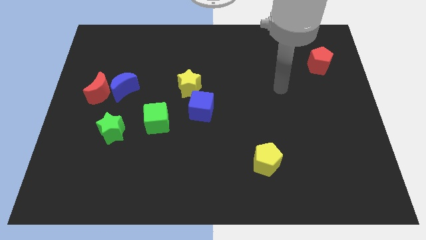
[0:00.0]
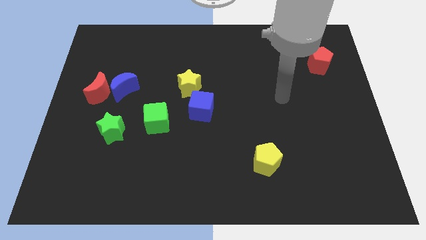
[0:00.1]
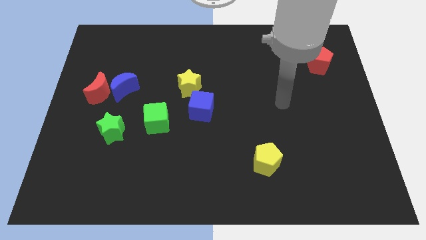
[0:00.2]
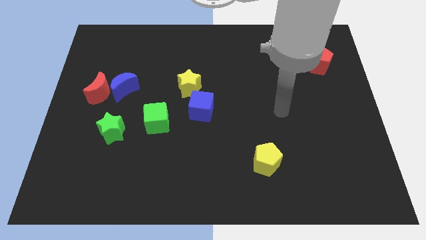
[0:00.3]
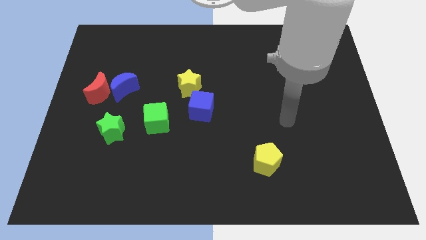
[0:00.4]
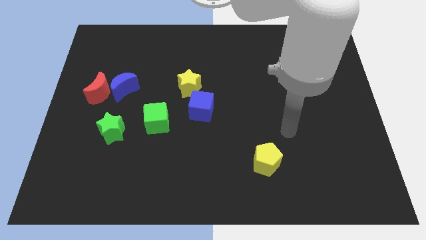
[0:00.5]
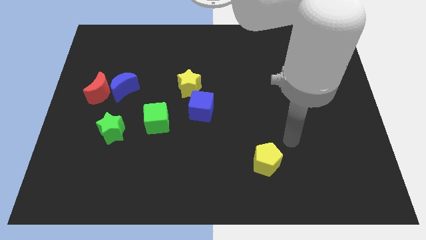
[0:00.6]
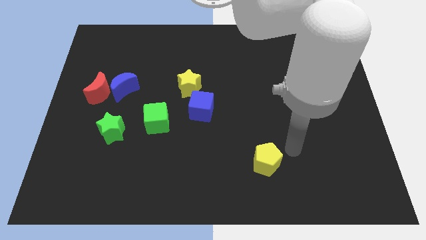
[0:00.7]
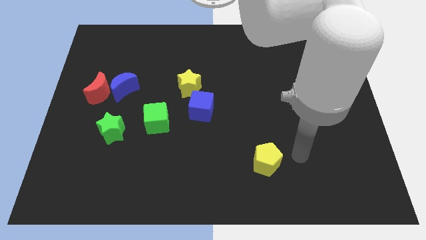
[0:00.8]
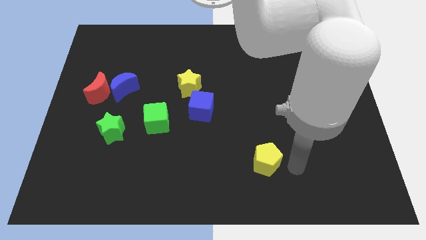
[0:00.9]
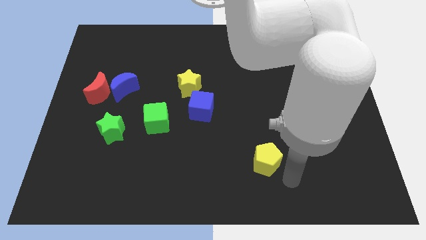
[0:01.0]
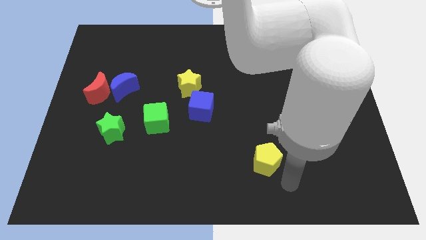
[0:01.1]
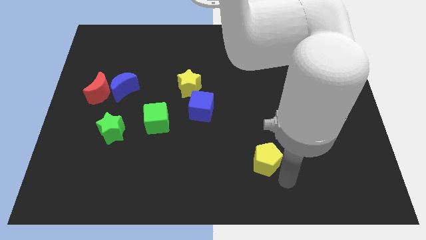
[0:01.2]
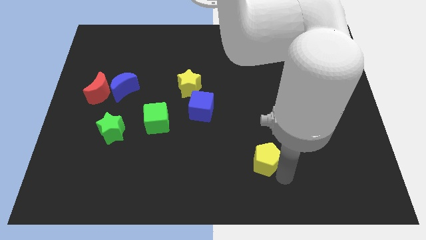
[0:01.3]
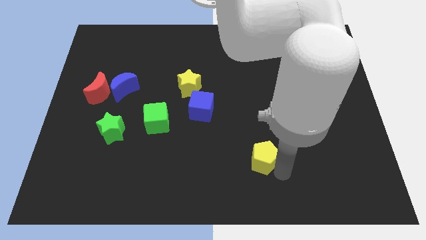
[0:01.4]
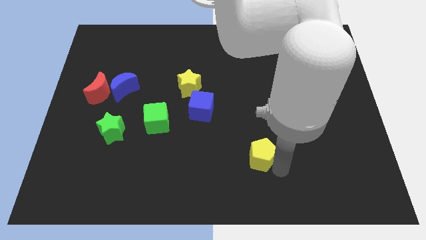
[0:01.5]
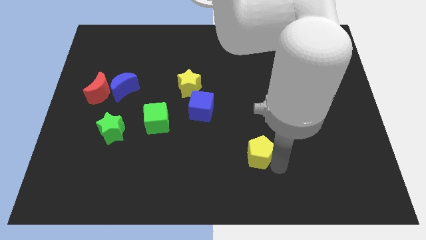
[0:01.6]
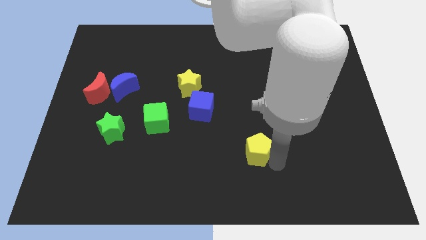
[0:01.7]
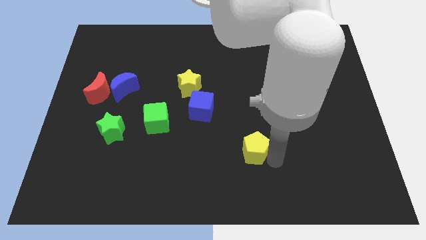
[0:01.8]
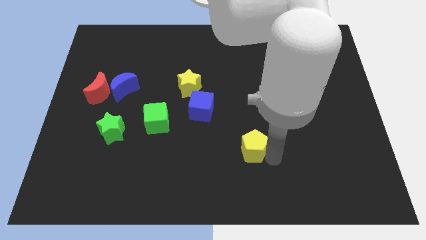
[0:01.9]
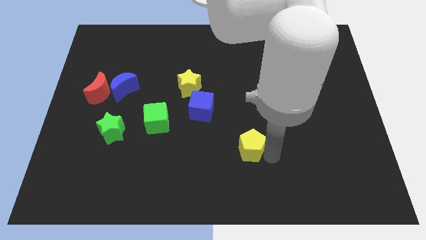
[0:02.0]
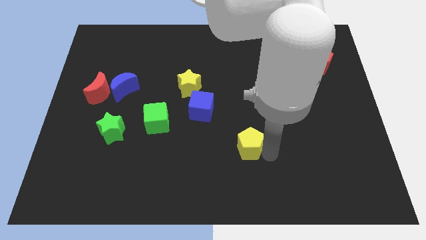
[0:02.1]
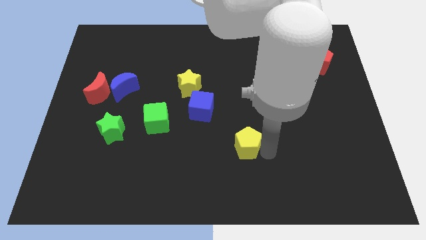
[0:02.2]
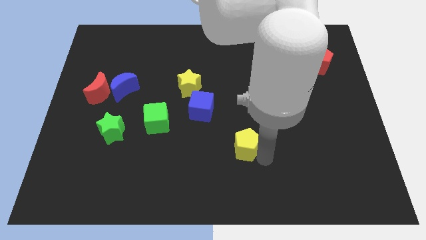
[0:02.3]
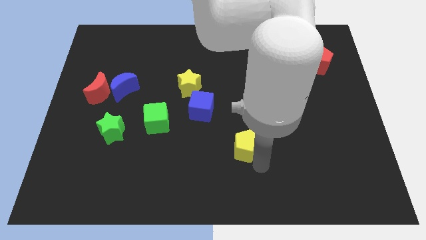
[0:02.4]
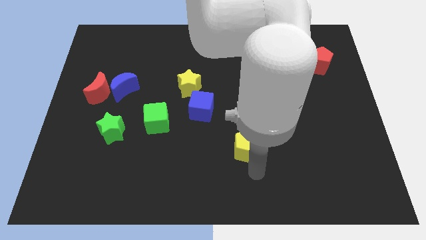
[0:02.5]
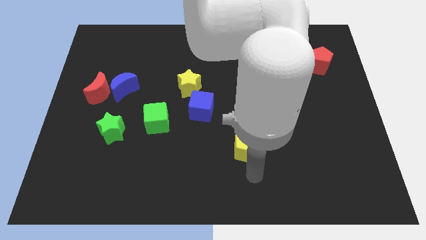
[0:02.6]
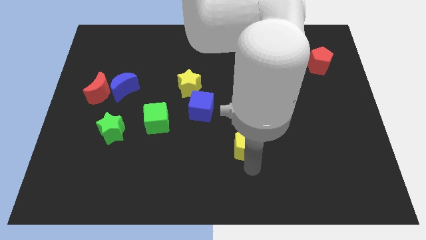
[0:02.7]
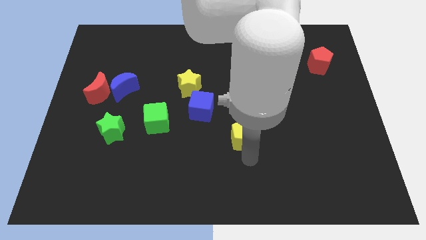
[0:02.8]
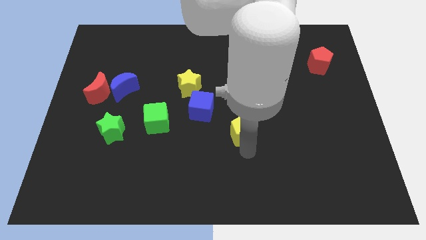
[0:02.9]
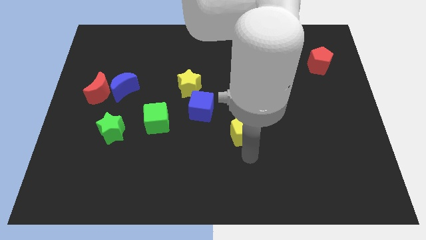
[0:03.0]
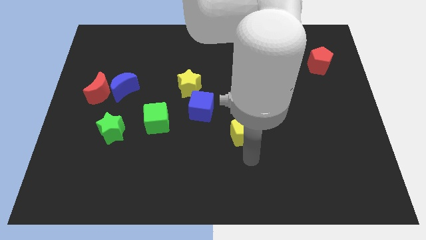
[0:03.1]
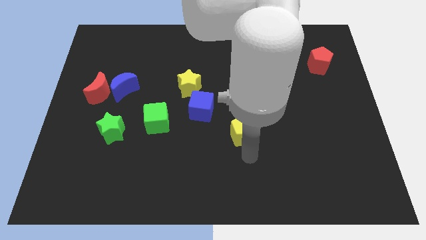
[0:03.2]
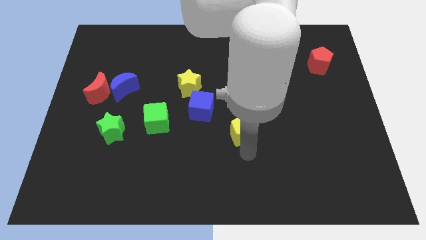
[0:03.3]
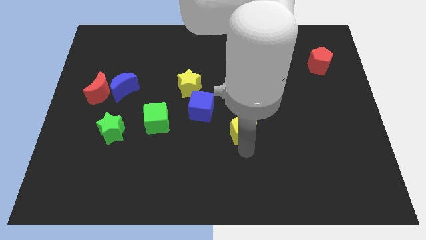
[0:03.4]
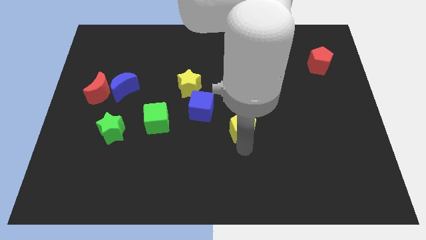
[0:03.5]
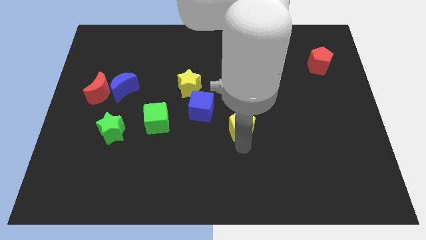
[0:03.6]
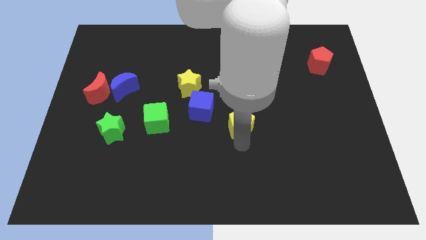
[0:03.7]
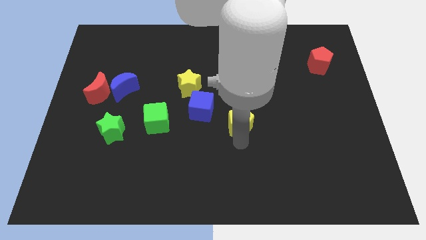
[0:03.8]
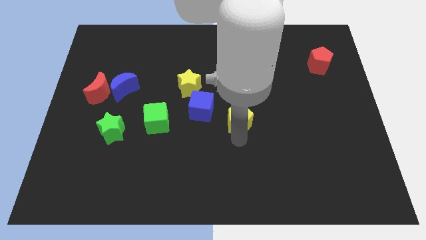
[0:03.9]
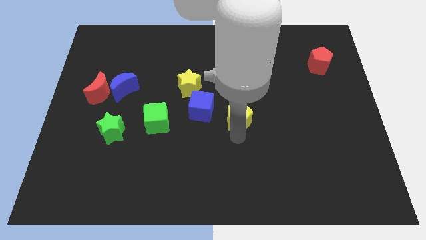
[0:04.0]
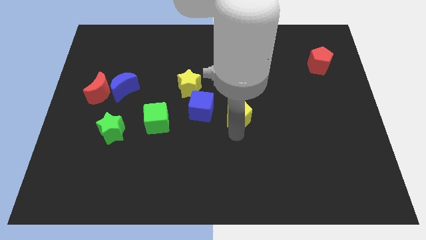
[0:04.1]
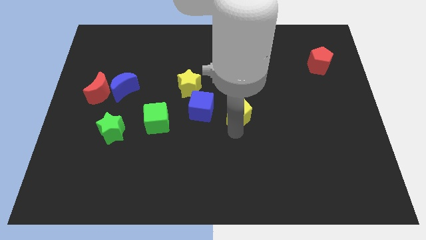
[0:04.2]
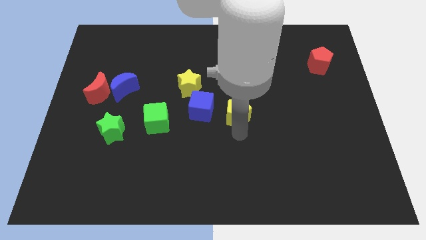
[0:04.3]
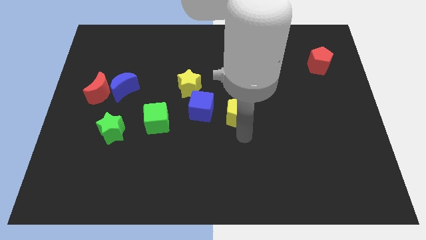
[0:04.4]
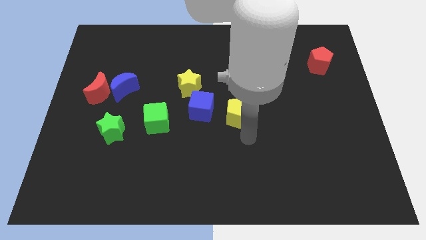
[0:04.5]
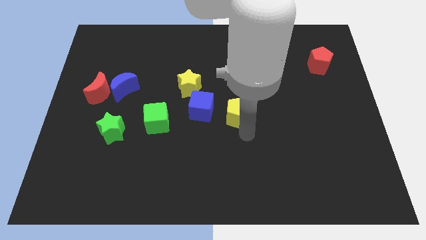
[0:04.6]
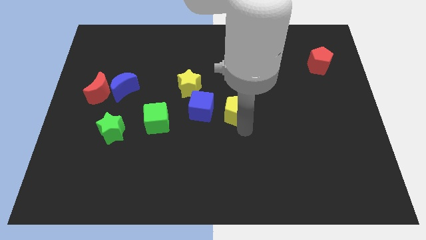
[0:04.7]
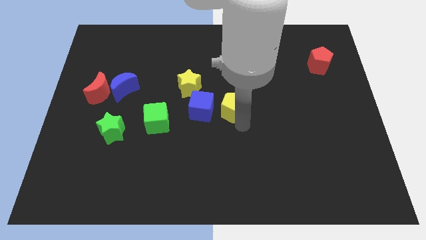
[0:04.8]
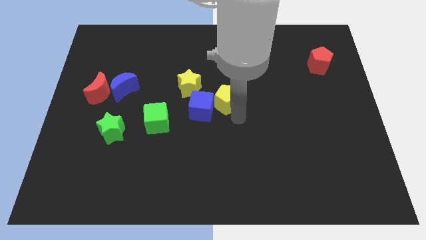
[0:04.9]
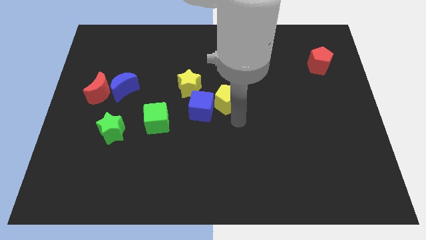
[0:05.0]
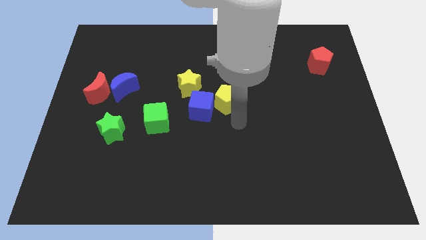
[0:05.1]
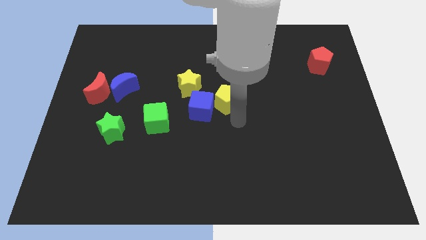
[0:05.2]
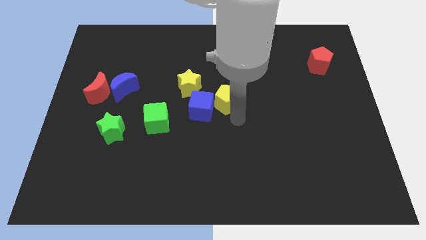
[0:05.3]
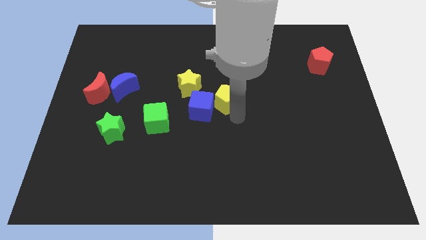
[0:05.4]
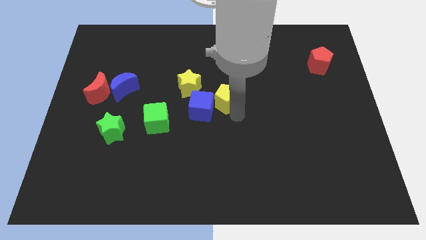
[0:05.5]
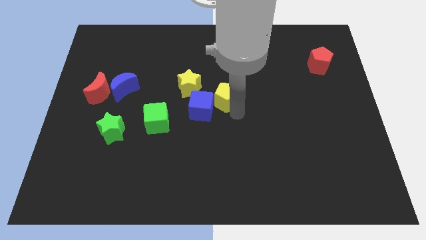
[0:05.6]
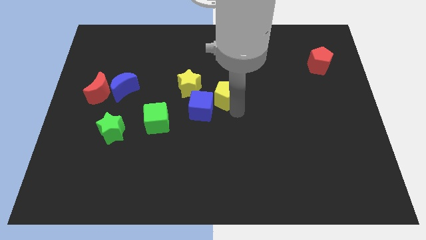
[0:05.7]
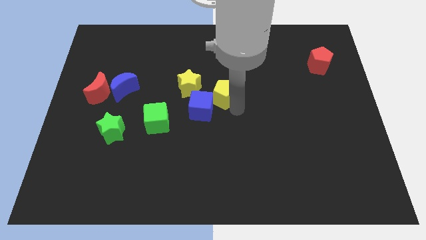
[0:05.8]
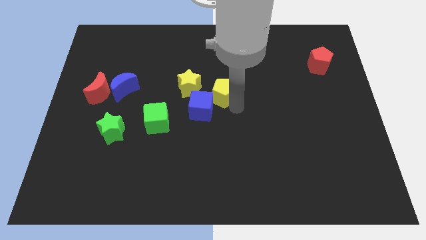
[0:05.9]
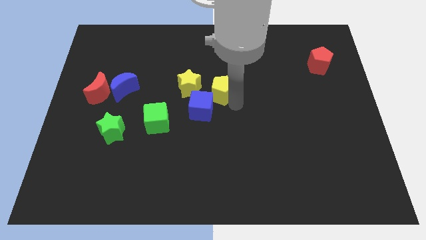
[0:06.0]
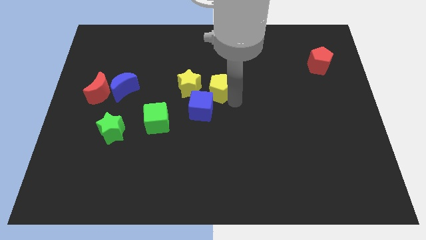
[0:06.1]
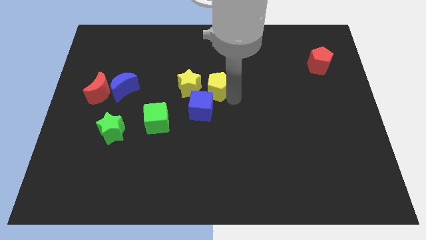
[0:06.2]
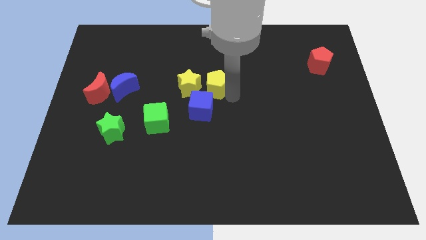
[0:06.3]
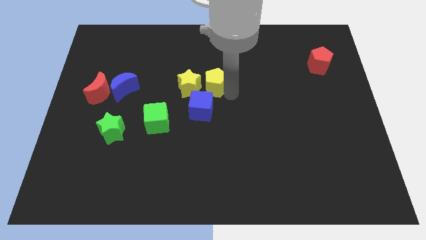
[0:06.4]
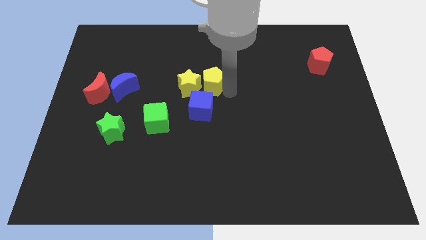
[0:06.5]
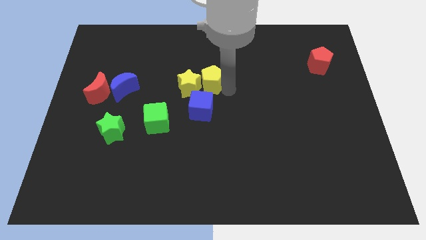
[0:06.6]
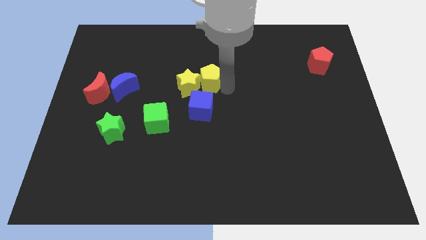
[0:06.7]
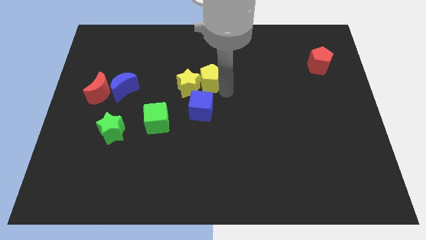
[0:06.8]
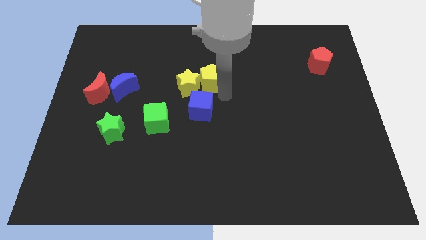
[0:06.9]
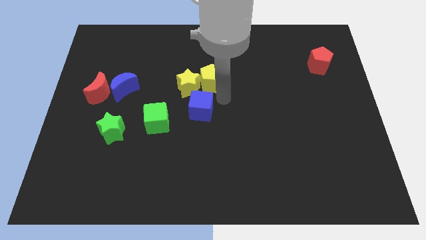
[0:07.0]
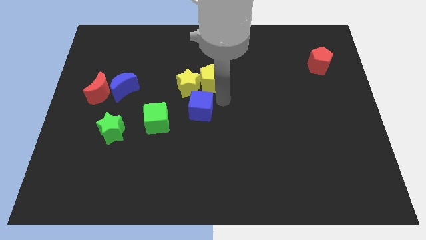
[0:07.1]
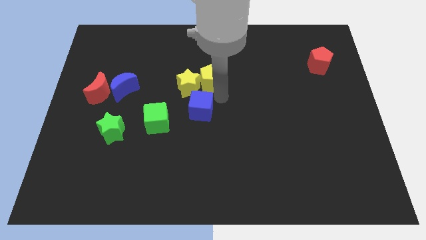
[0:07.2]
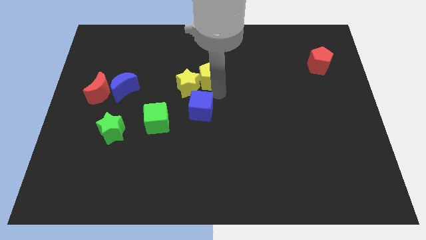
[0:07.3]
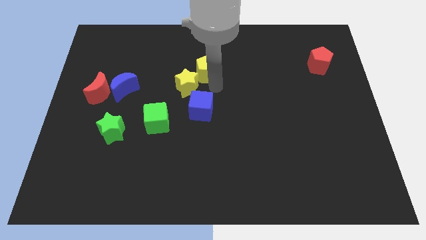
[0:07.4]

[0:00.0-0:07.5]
slide the yellow pentagon to the top of the yellow star
